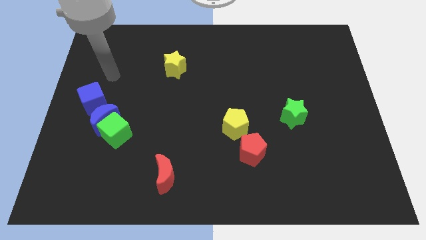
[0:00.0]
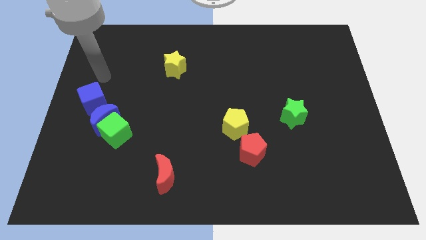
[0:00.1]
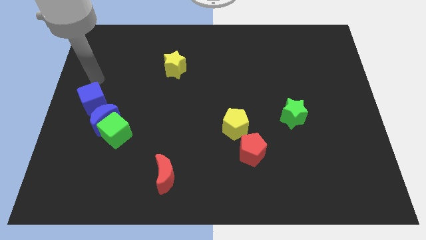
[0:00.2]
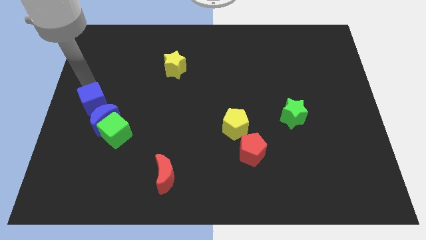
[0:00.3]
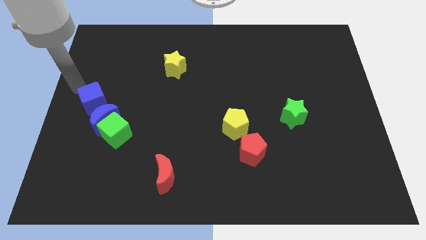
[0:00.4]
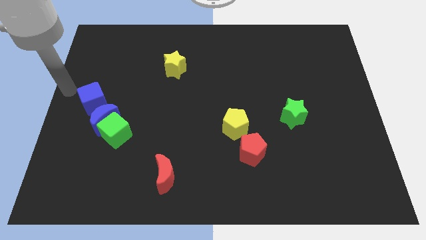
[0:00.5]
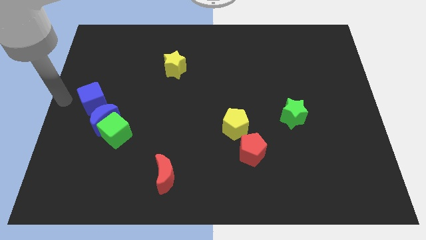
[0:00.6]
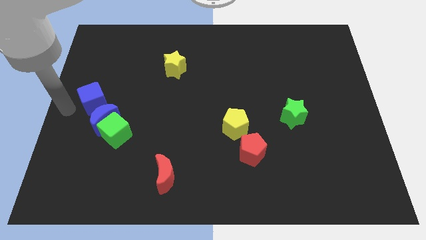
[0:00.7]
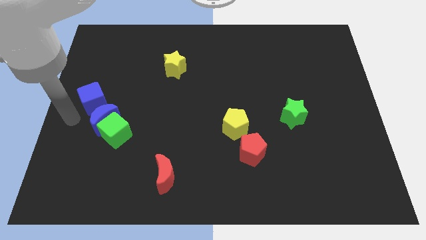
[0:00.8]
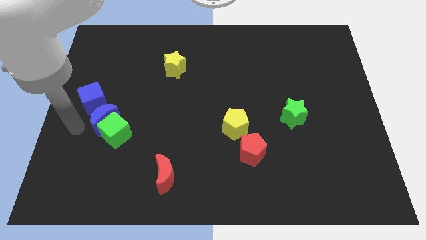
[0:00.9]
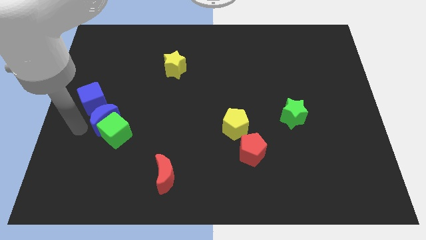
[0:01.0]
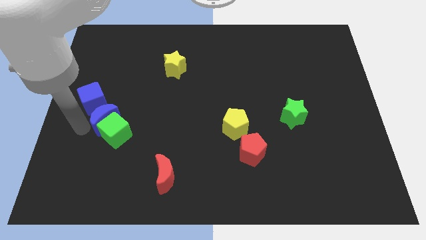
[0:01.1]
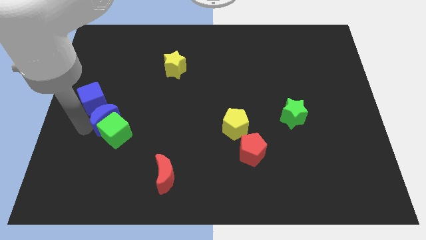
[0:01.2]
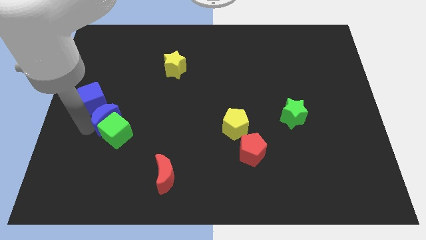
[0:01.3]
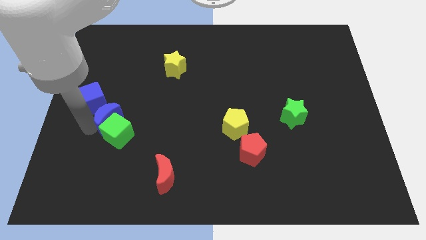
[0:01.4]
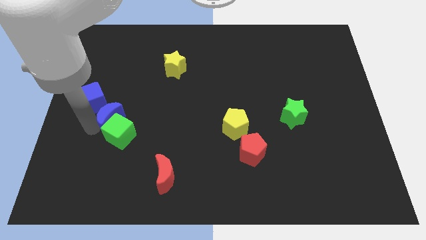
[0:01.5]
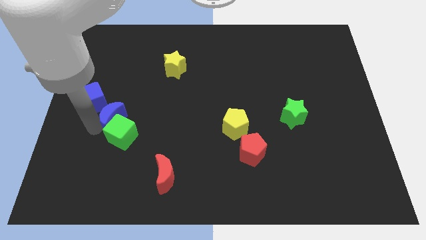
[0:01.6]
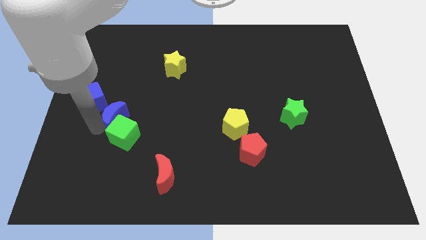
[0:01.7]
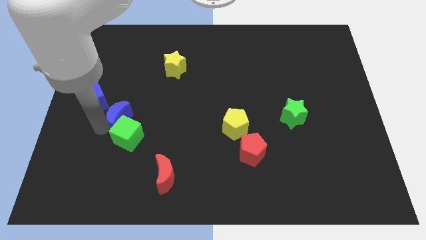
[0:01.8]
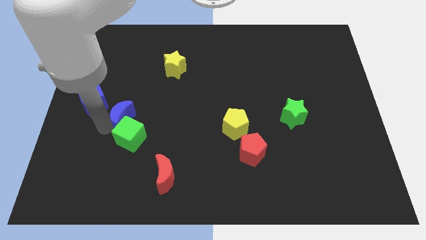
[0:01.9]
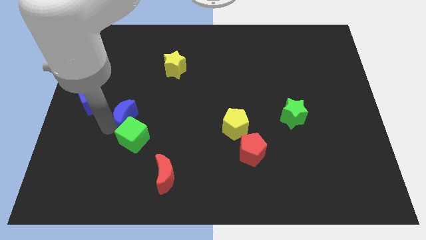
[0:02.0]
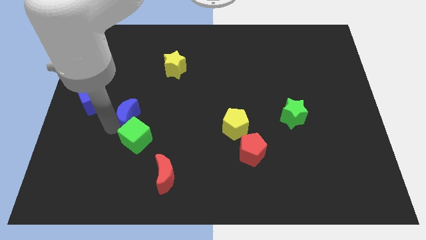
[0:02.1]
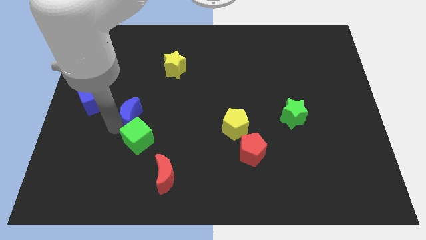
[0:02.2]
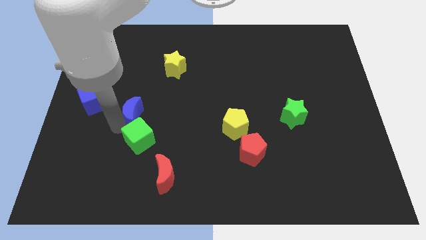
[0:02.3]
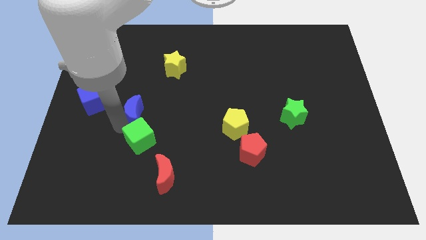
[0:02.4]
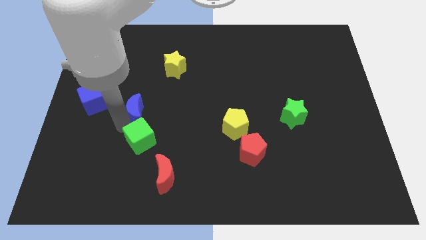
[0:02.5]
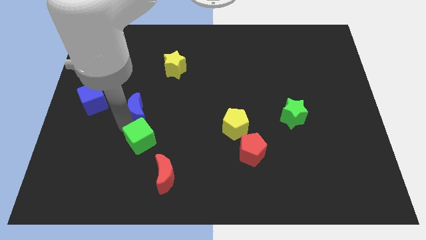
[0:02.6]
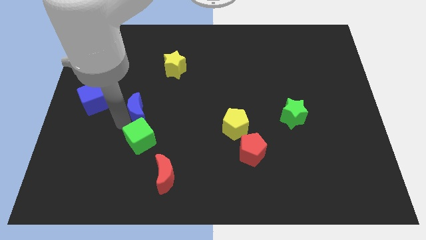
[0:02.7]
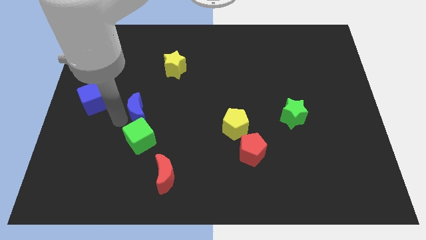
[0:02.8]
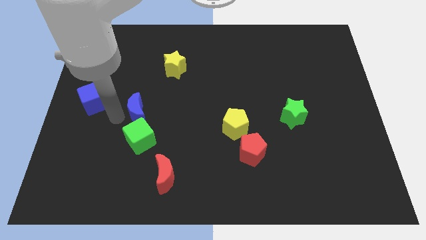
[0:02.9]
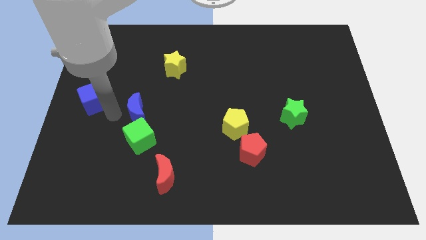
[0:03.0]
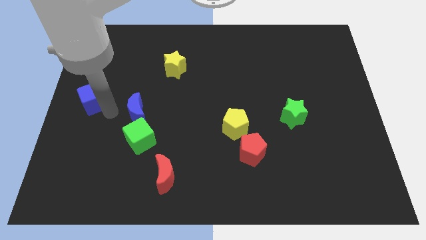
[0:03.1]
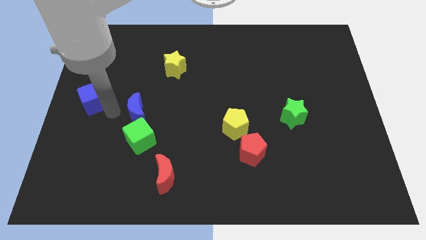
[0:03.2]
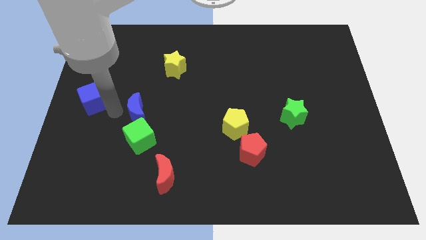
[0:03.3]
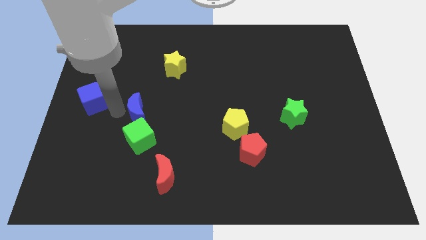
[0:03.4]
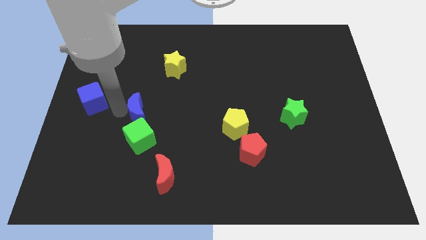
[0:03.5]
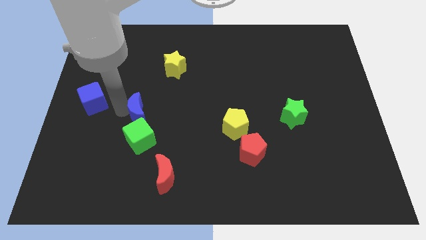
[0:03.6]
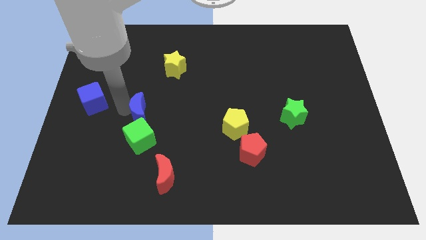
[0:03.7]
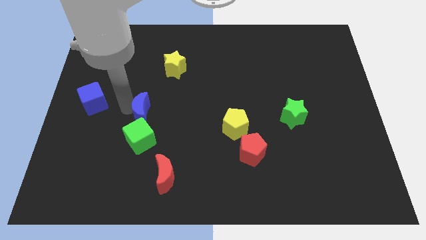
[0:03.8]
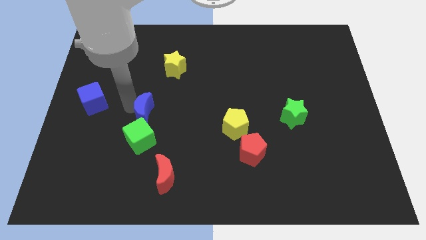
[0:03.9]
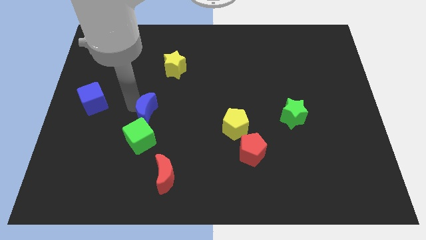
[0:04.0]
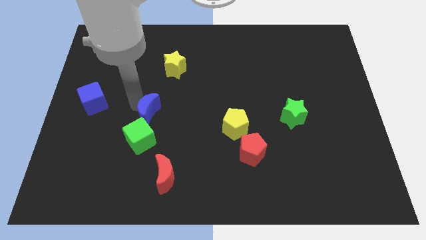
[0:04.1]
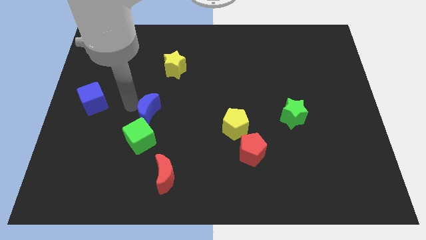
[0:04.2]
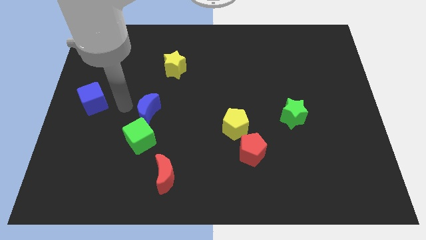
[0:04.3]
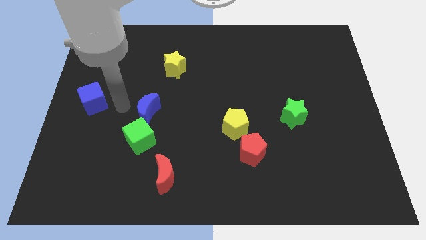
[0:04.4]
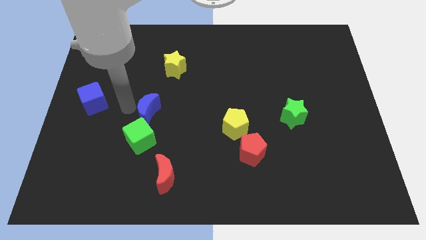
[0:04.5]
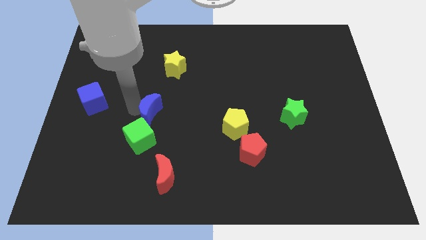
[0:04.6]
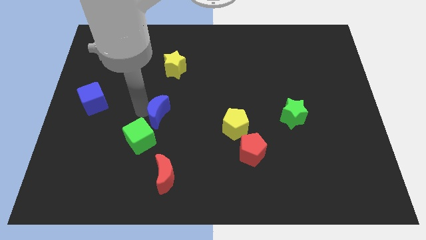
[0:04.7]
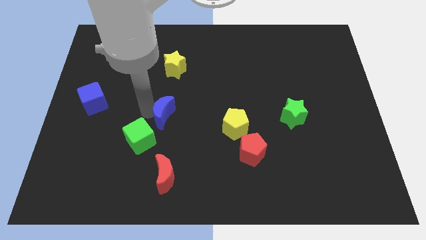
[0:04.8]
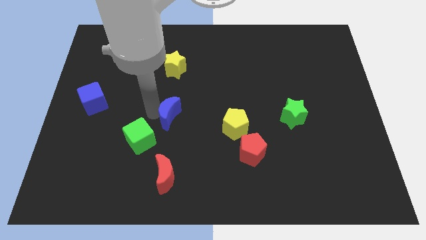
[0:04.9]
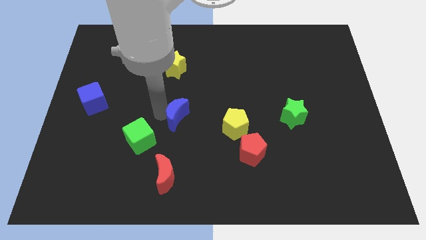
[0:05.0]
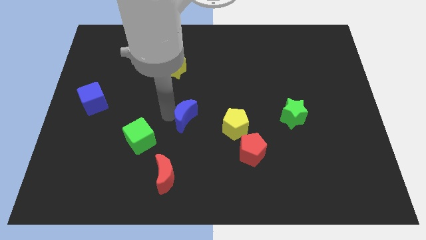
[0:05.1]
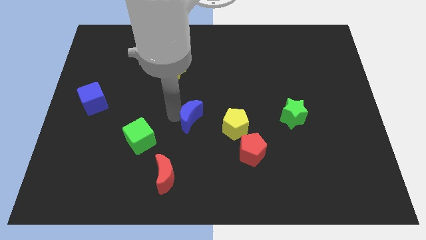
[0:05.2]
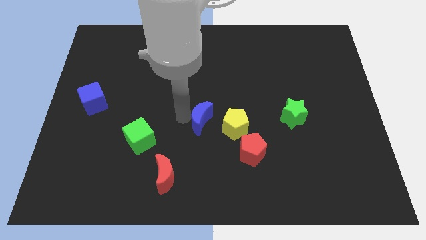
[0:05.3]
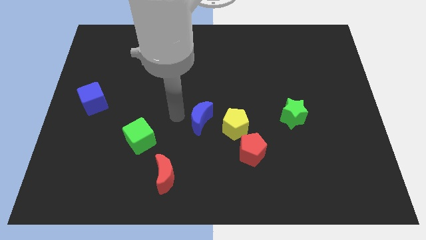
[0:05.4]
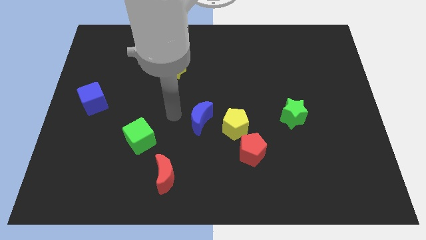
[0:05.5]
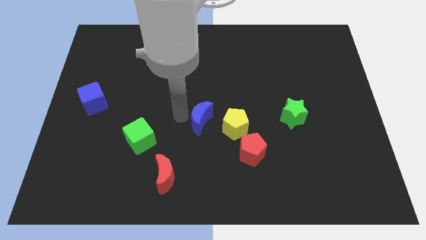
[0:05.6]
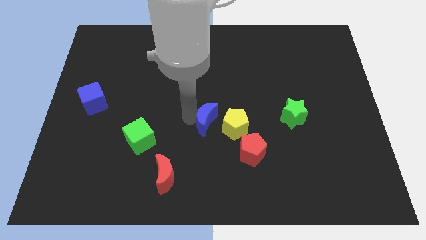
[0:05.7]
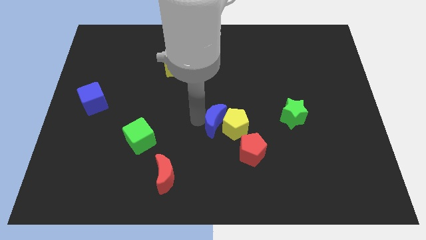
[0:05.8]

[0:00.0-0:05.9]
put the blue moon to the yellow pentagon

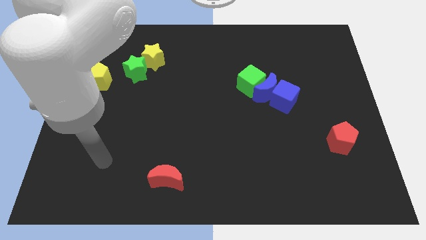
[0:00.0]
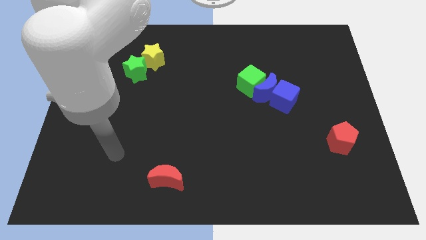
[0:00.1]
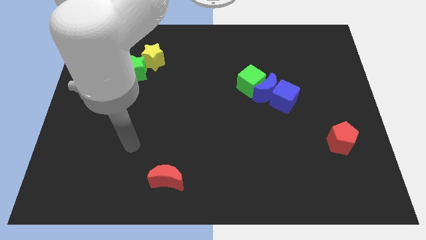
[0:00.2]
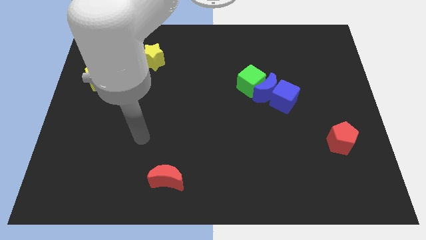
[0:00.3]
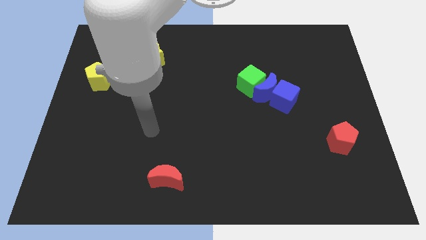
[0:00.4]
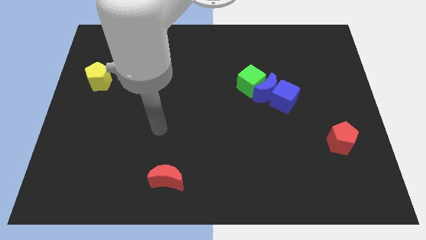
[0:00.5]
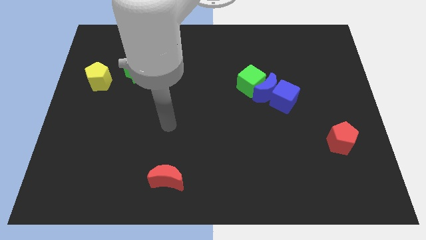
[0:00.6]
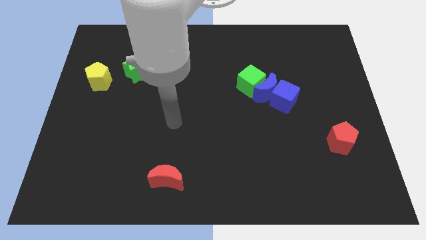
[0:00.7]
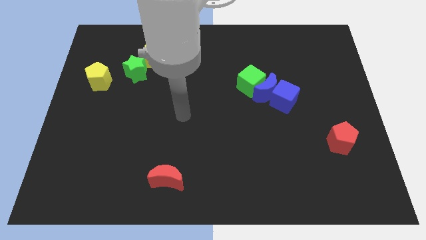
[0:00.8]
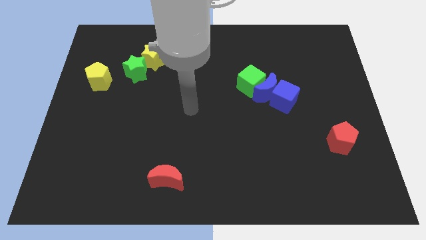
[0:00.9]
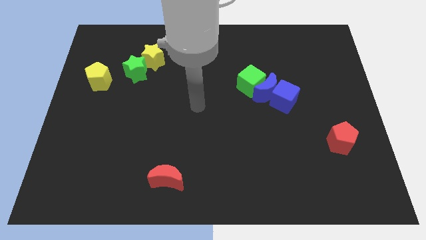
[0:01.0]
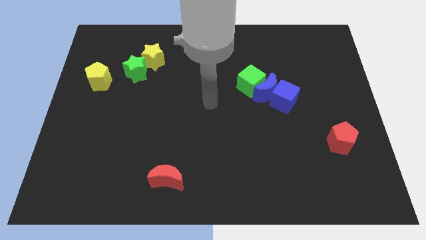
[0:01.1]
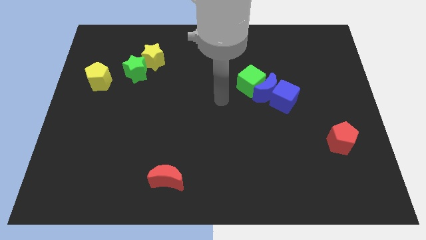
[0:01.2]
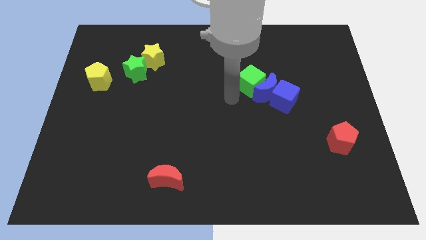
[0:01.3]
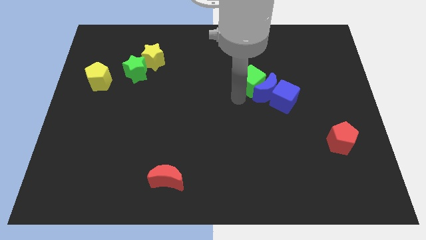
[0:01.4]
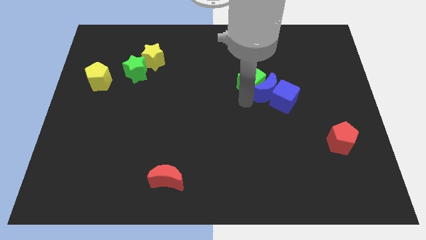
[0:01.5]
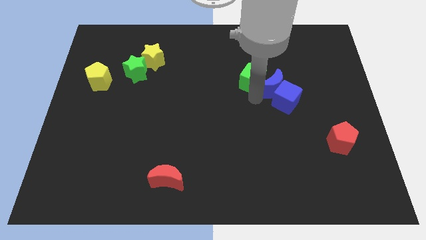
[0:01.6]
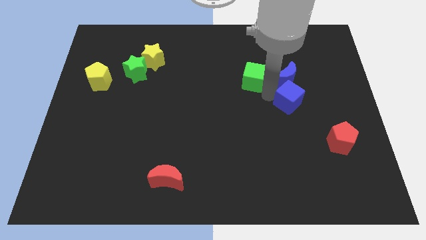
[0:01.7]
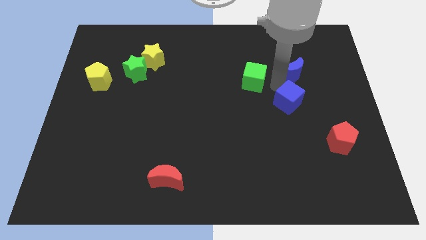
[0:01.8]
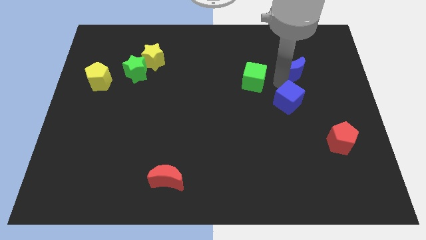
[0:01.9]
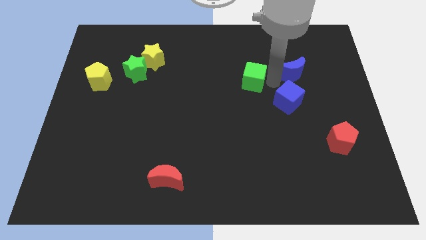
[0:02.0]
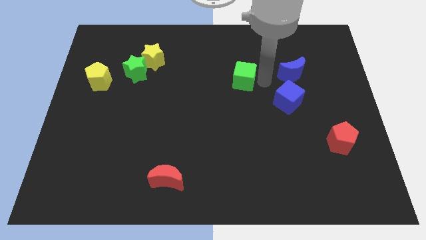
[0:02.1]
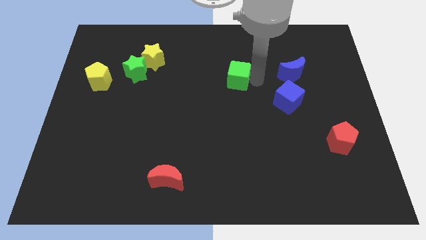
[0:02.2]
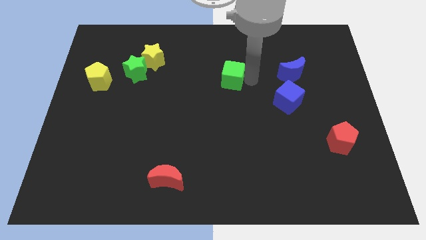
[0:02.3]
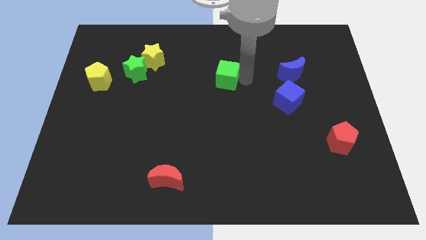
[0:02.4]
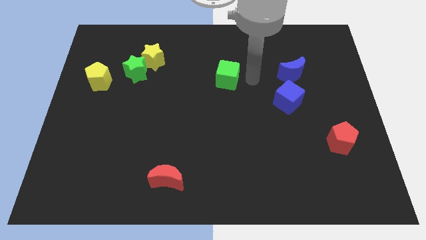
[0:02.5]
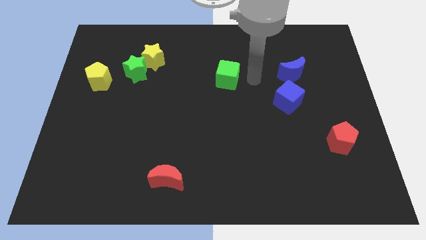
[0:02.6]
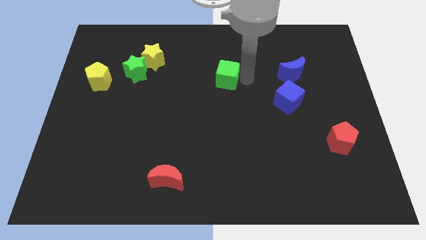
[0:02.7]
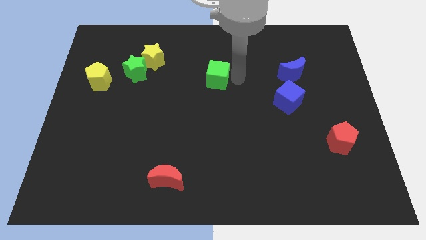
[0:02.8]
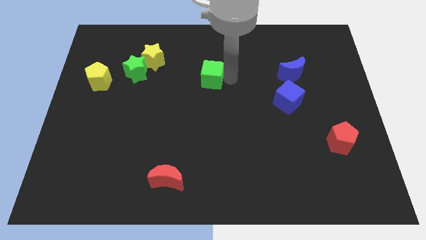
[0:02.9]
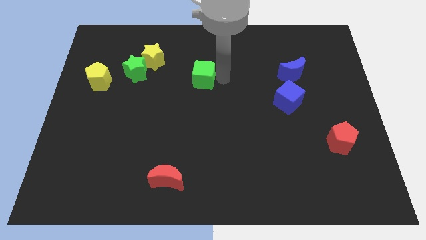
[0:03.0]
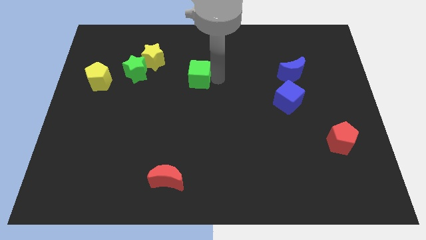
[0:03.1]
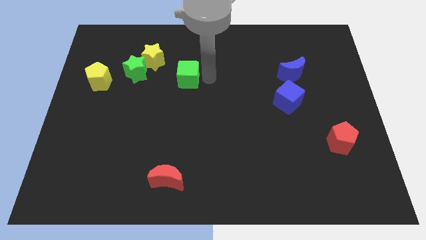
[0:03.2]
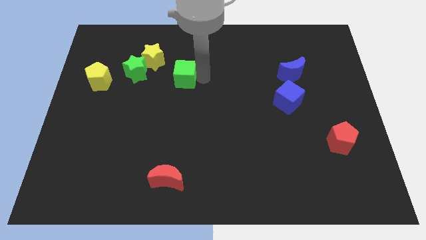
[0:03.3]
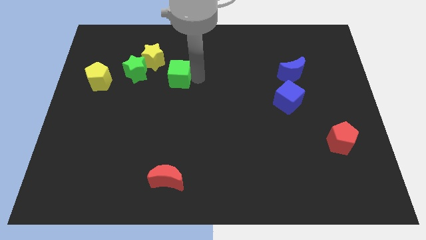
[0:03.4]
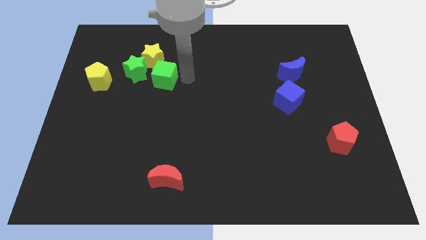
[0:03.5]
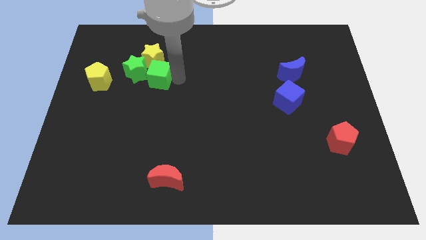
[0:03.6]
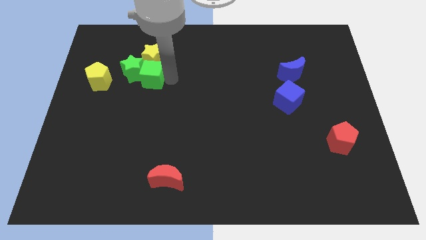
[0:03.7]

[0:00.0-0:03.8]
put the green cube next to the green star
